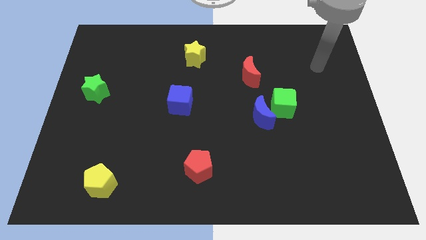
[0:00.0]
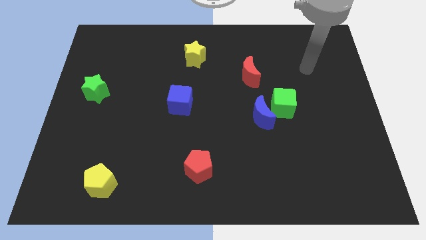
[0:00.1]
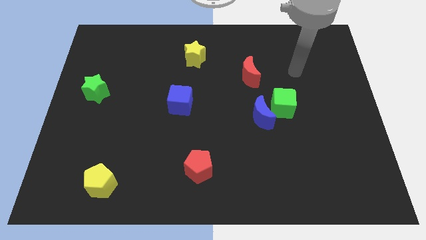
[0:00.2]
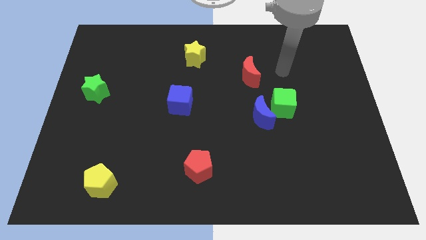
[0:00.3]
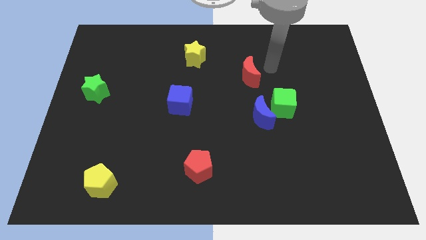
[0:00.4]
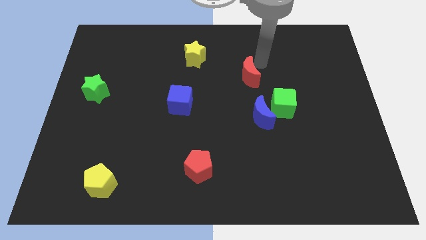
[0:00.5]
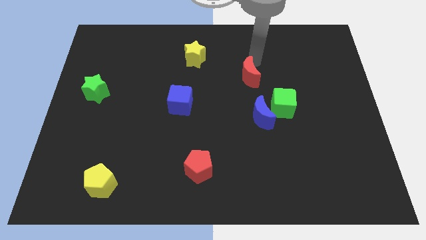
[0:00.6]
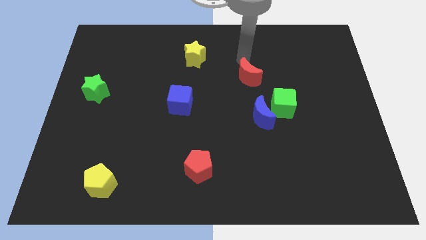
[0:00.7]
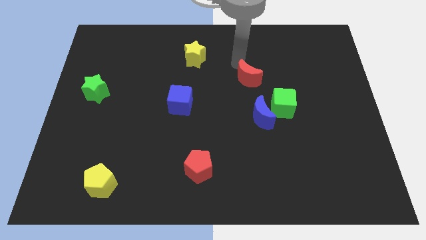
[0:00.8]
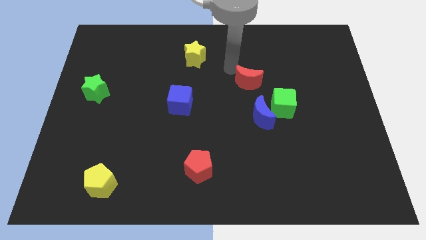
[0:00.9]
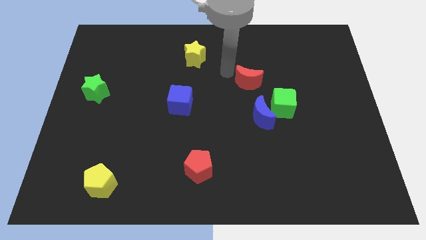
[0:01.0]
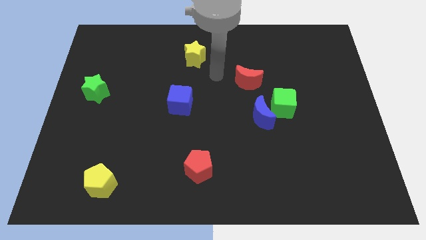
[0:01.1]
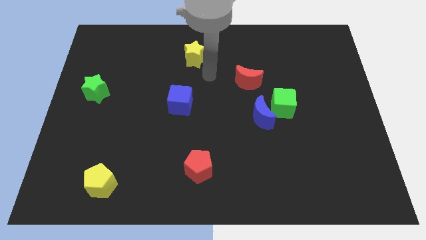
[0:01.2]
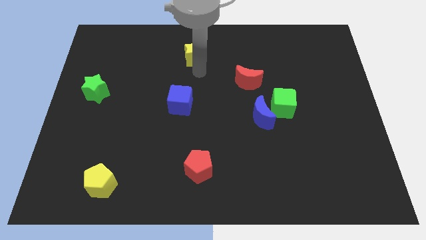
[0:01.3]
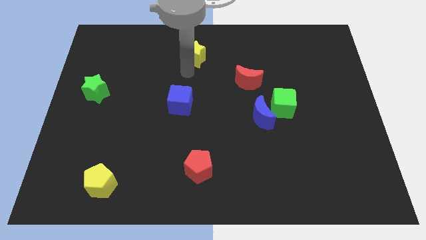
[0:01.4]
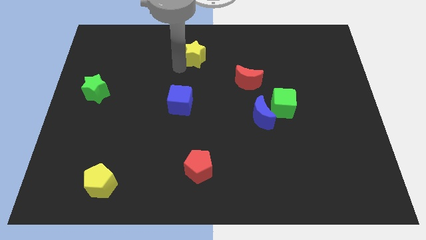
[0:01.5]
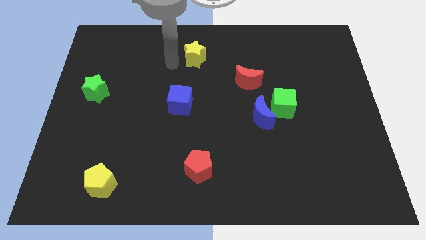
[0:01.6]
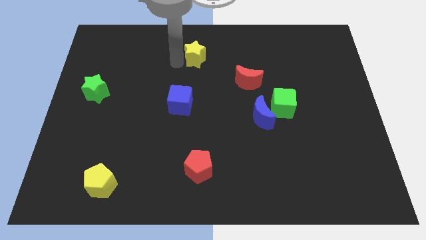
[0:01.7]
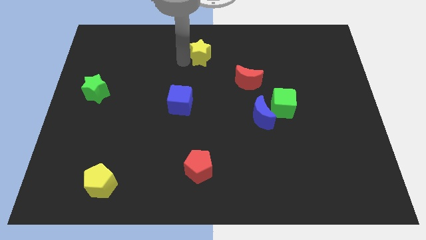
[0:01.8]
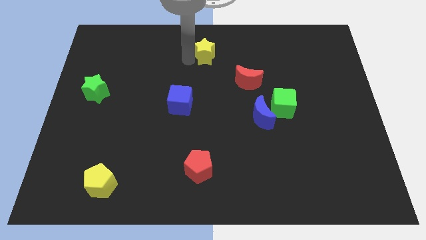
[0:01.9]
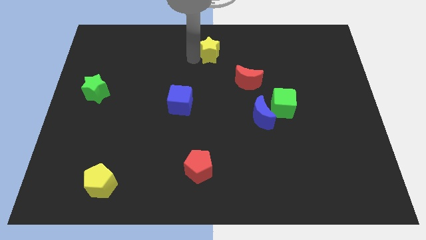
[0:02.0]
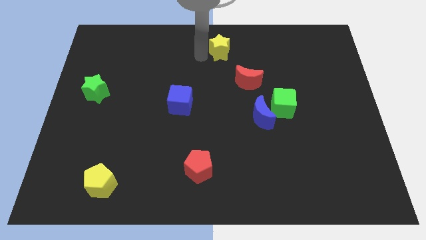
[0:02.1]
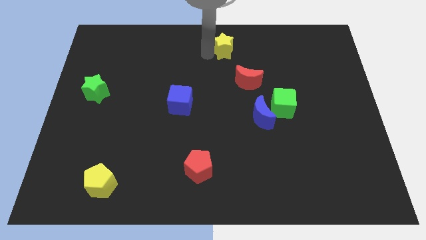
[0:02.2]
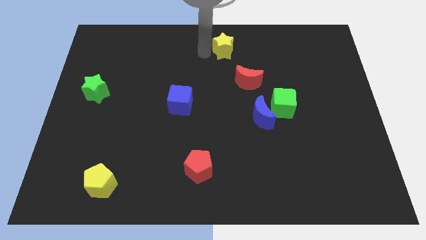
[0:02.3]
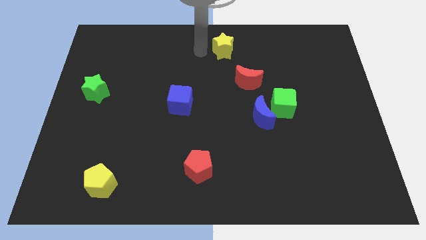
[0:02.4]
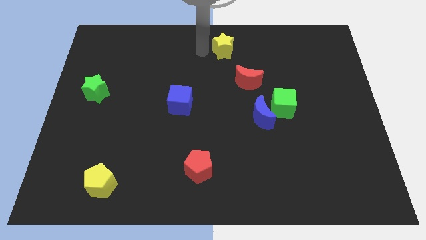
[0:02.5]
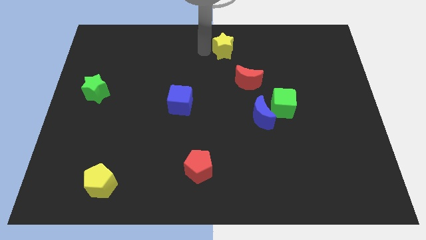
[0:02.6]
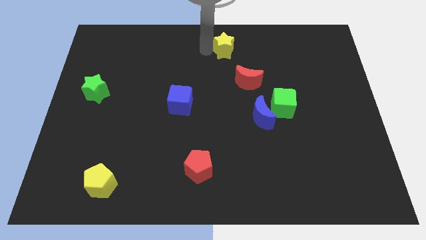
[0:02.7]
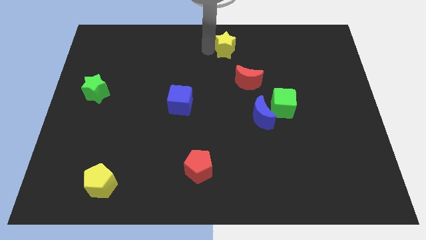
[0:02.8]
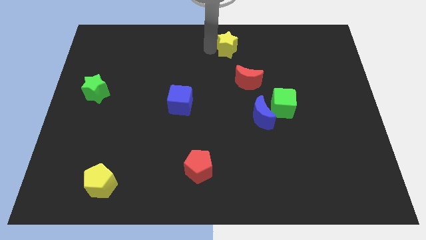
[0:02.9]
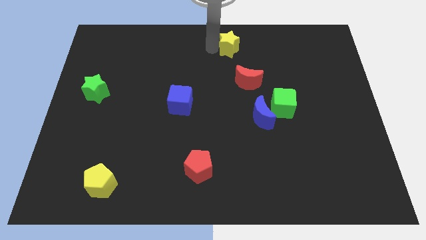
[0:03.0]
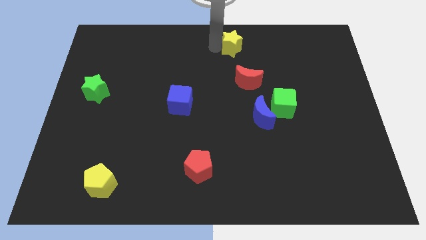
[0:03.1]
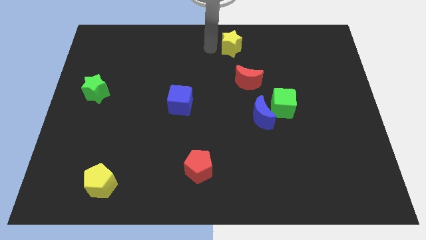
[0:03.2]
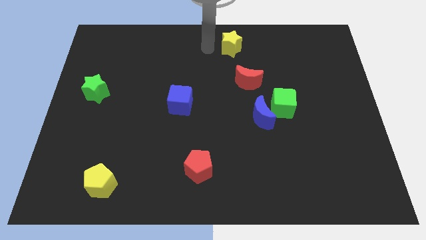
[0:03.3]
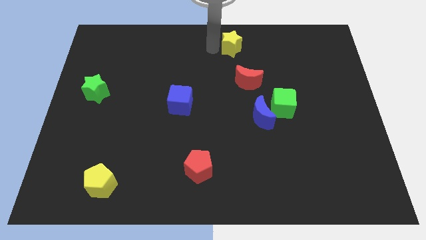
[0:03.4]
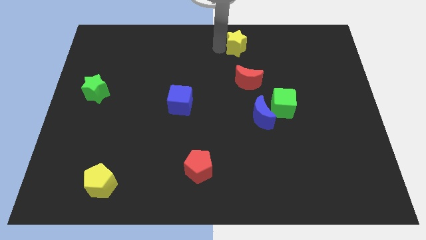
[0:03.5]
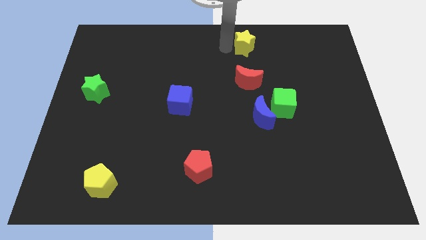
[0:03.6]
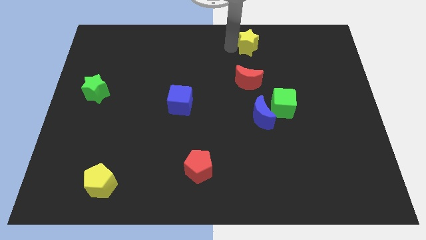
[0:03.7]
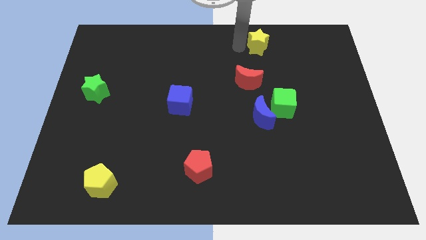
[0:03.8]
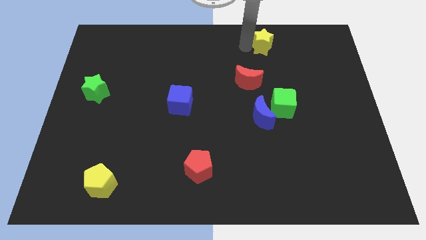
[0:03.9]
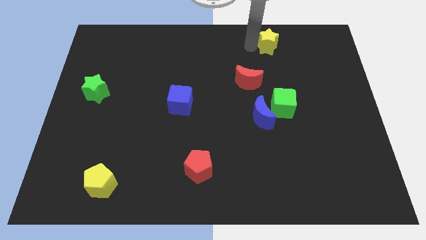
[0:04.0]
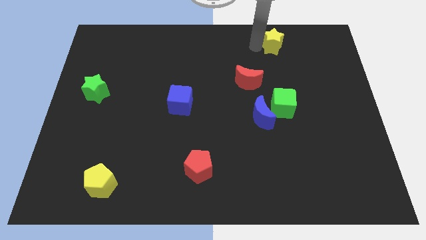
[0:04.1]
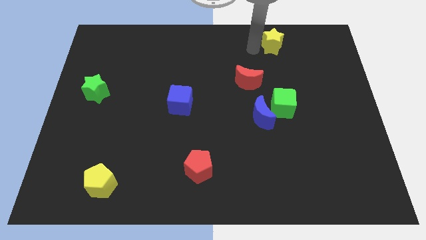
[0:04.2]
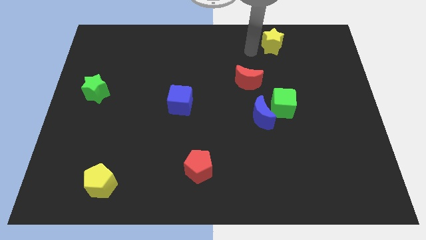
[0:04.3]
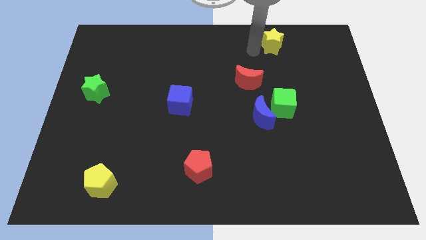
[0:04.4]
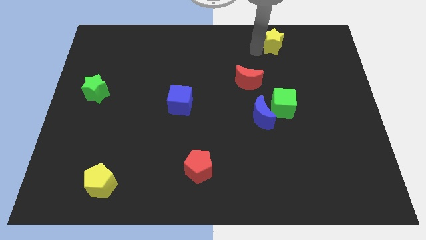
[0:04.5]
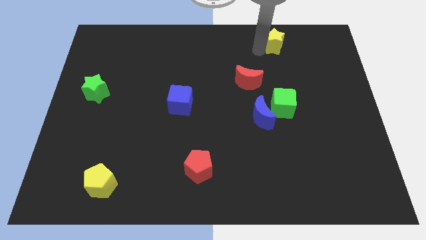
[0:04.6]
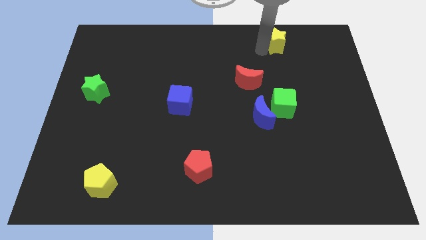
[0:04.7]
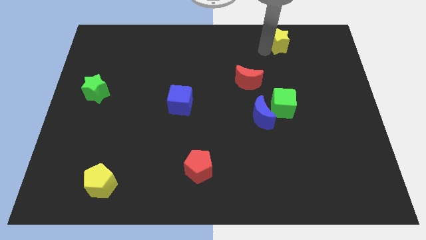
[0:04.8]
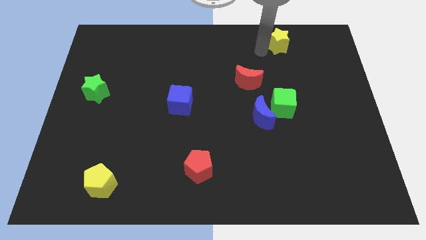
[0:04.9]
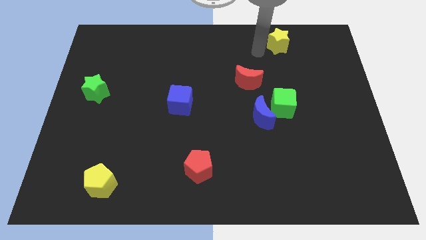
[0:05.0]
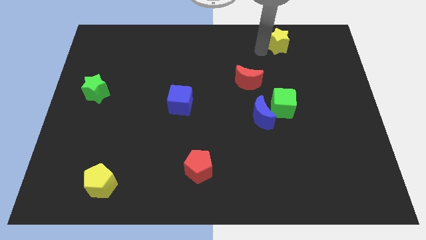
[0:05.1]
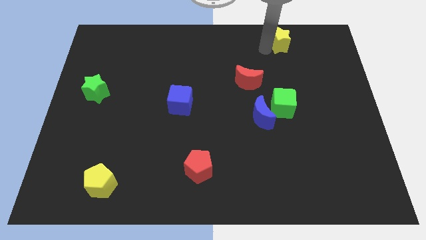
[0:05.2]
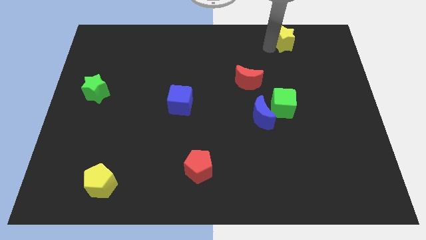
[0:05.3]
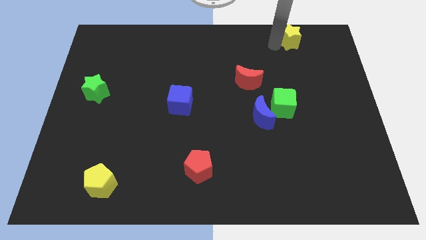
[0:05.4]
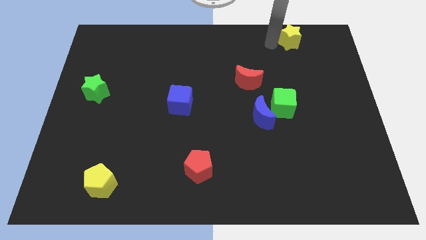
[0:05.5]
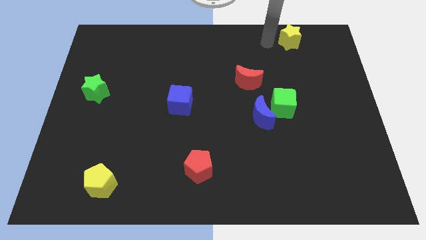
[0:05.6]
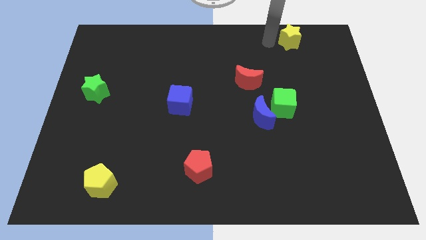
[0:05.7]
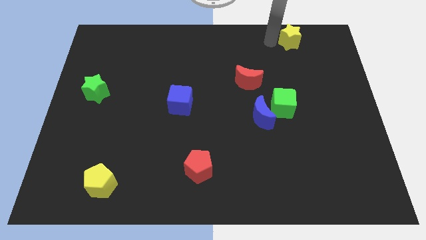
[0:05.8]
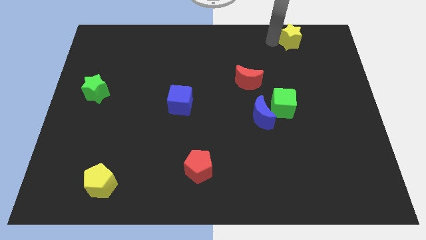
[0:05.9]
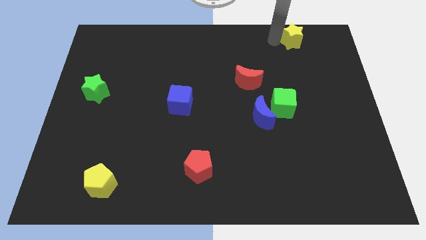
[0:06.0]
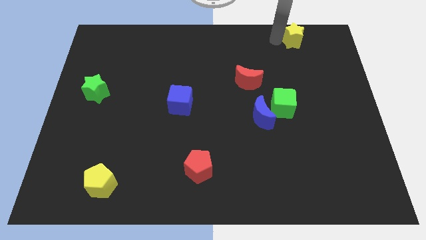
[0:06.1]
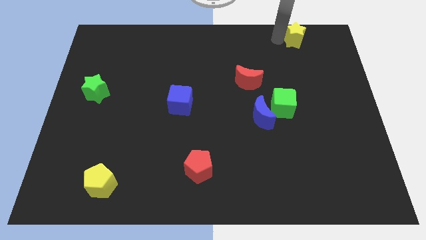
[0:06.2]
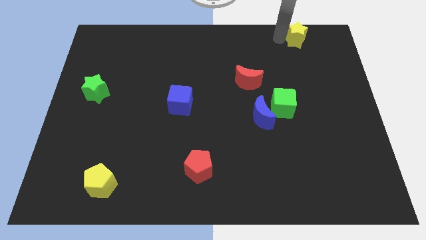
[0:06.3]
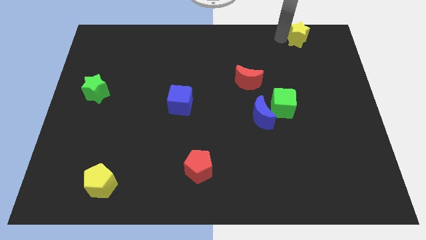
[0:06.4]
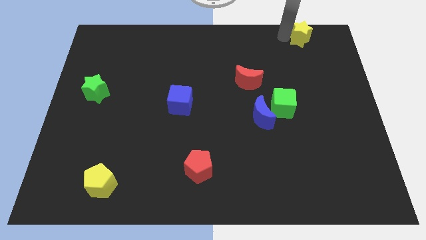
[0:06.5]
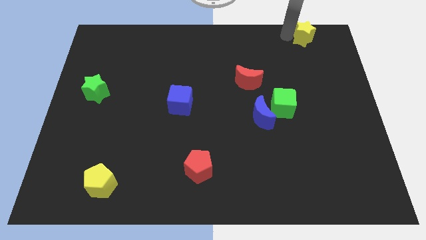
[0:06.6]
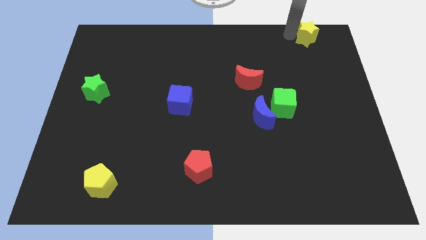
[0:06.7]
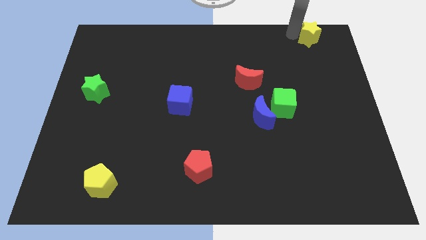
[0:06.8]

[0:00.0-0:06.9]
put the yellow star to the top right

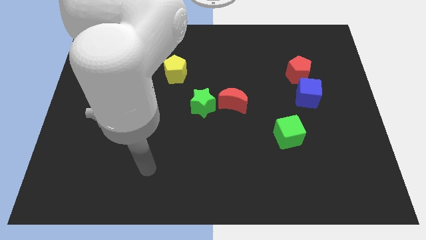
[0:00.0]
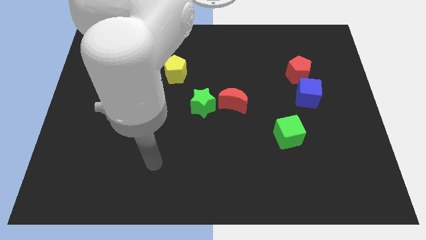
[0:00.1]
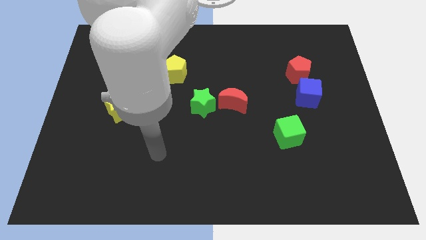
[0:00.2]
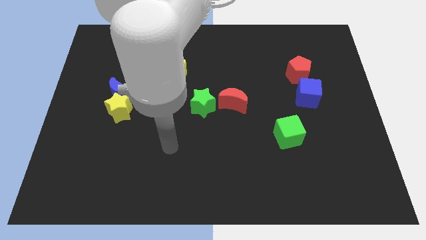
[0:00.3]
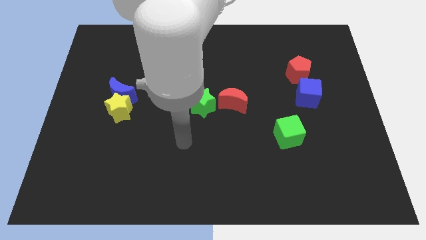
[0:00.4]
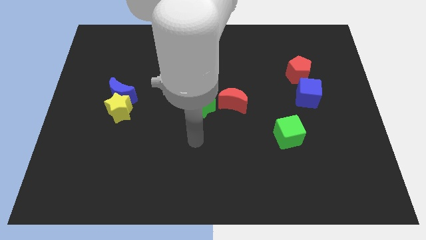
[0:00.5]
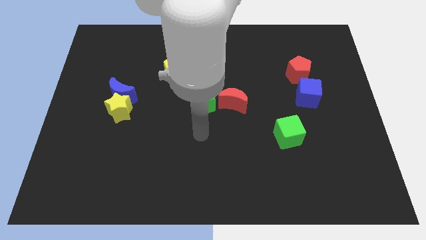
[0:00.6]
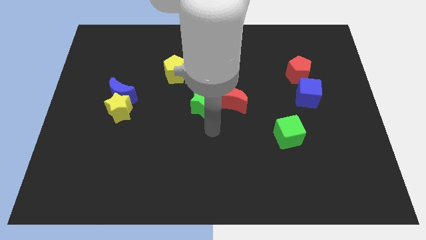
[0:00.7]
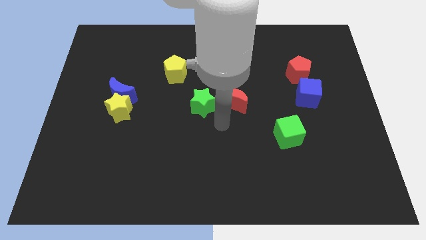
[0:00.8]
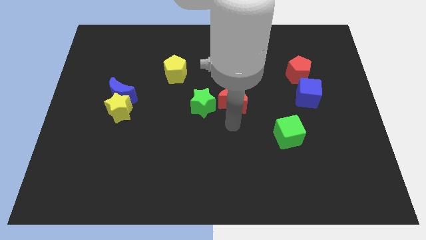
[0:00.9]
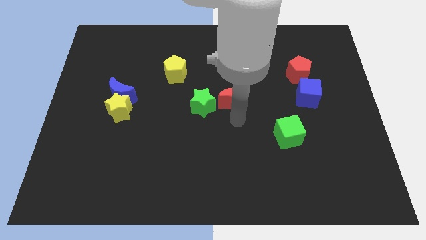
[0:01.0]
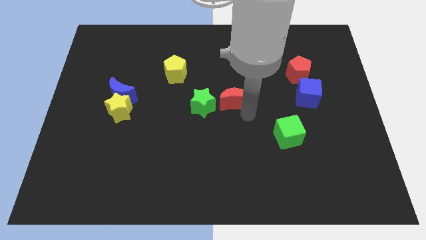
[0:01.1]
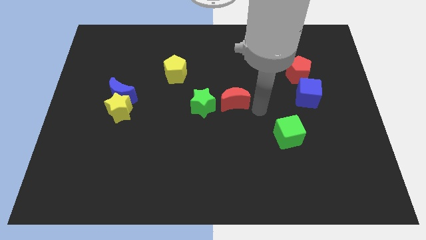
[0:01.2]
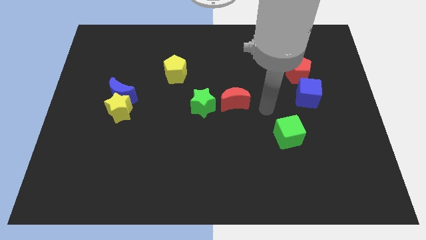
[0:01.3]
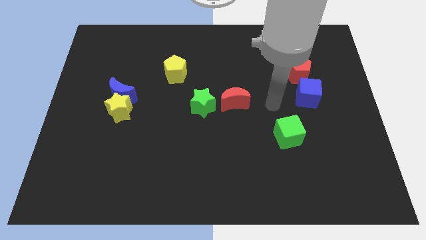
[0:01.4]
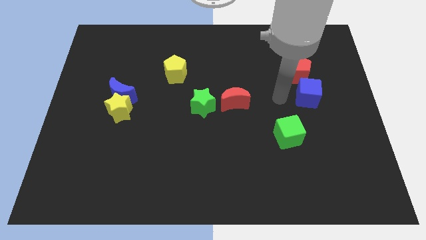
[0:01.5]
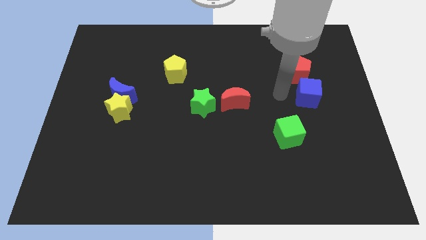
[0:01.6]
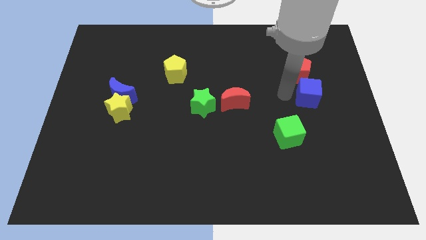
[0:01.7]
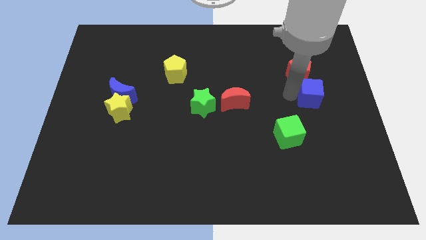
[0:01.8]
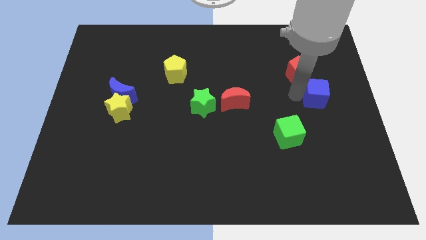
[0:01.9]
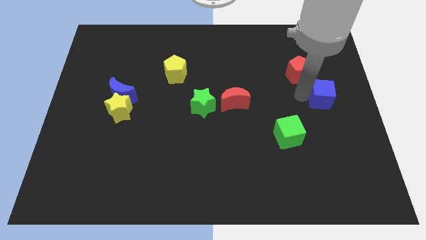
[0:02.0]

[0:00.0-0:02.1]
put the blue cube to the right side
